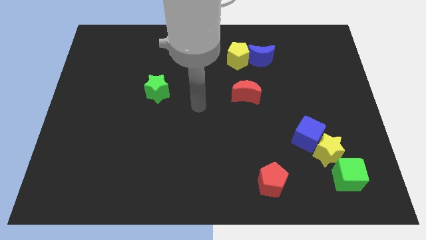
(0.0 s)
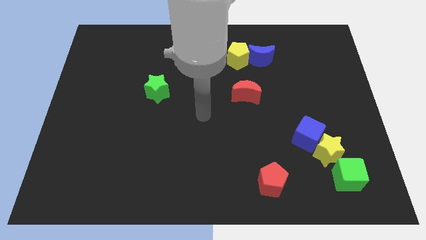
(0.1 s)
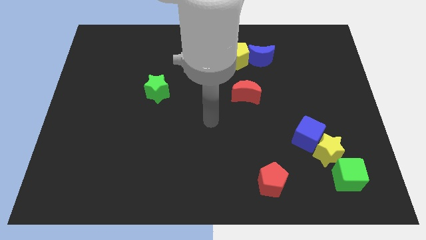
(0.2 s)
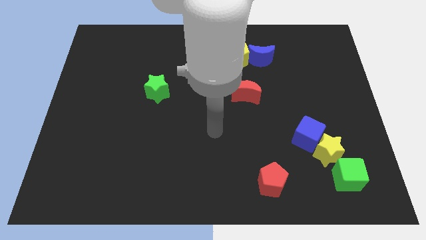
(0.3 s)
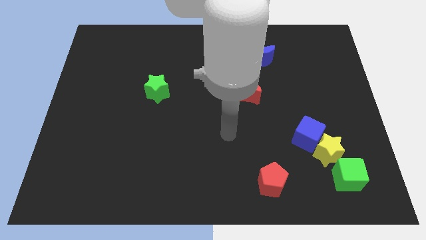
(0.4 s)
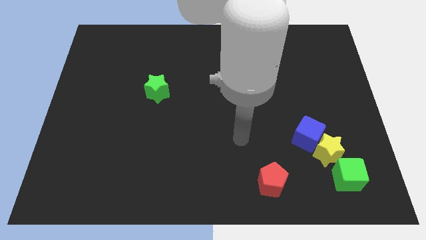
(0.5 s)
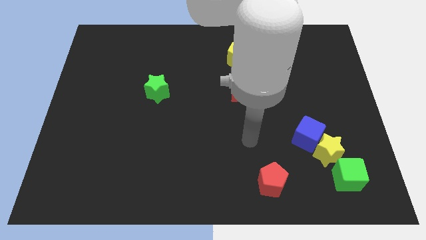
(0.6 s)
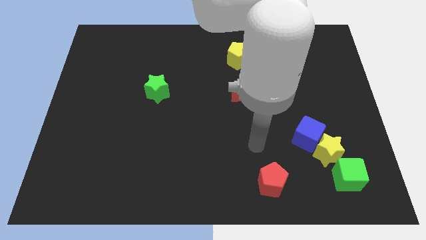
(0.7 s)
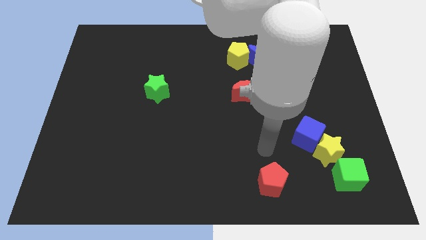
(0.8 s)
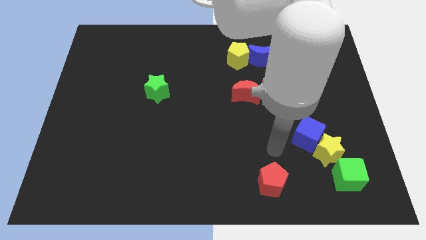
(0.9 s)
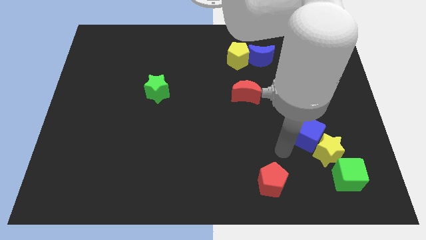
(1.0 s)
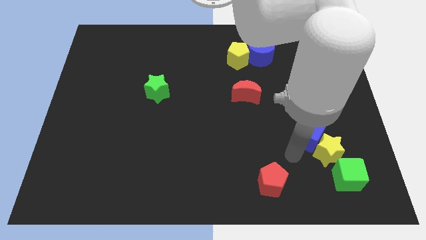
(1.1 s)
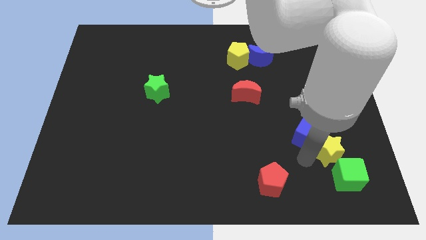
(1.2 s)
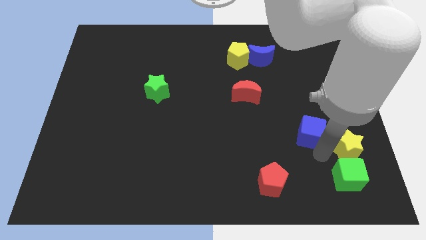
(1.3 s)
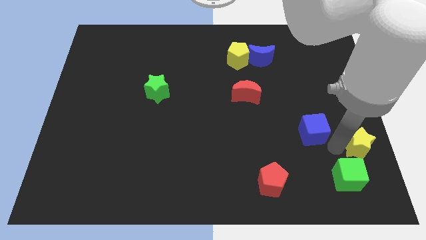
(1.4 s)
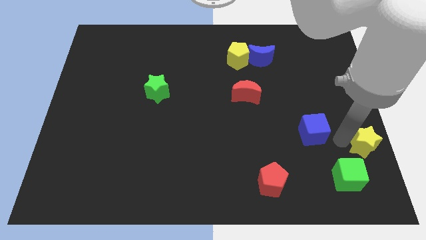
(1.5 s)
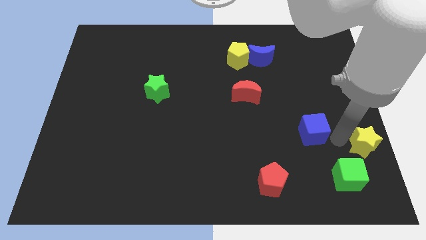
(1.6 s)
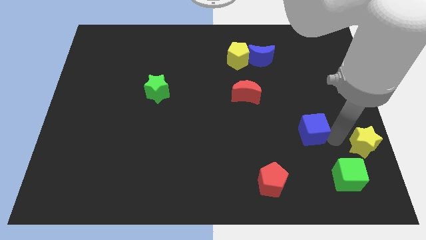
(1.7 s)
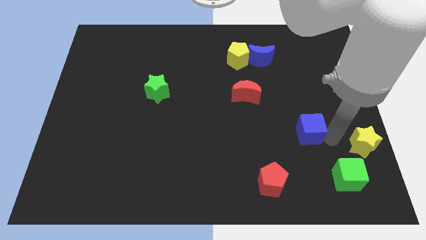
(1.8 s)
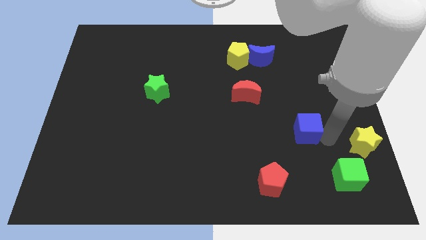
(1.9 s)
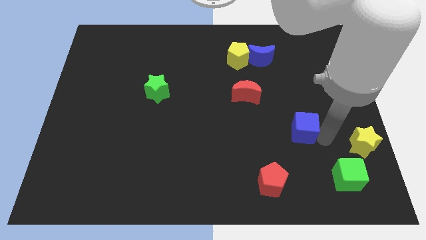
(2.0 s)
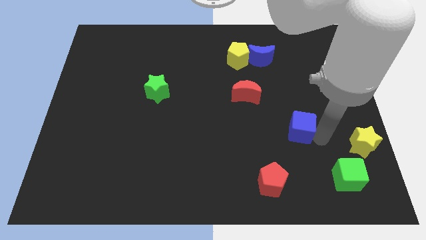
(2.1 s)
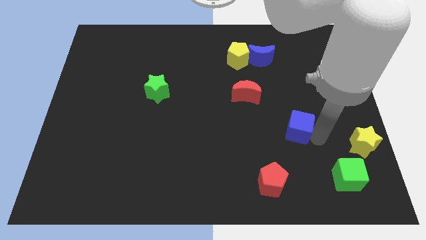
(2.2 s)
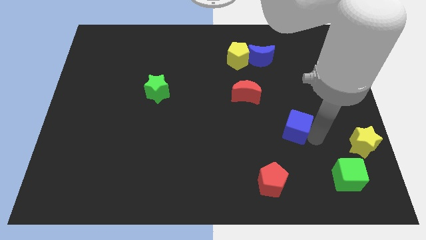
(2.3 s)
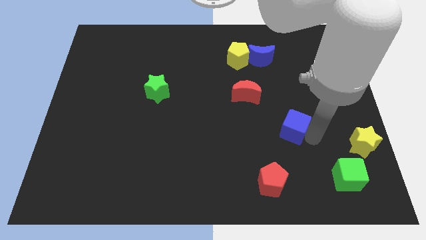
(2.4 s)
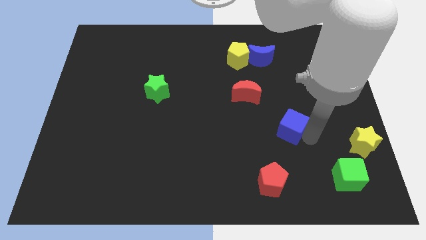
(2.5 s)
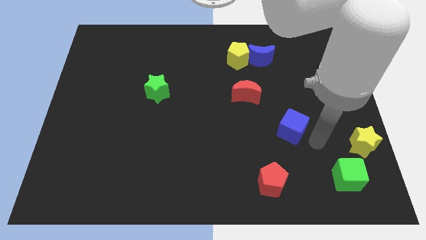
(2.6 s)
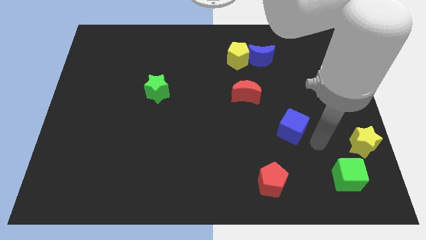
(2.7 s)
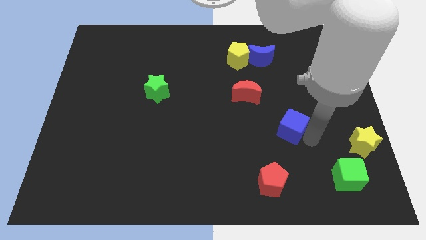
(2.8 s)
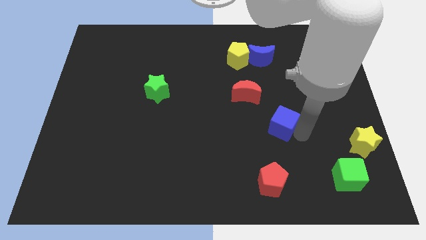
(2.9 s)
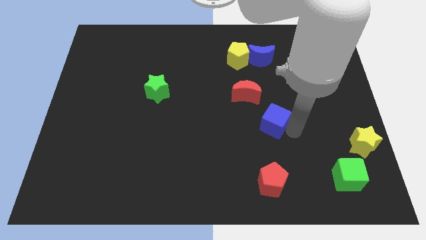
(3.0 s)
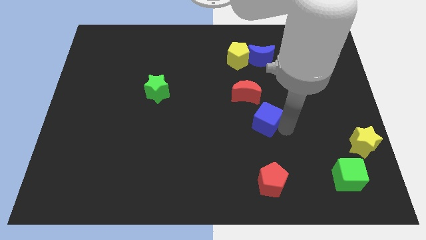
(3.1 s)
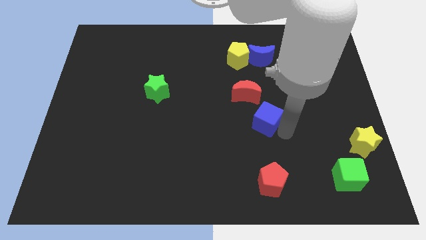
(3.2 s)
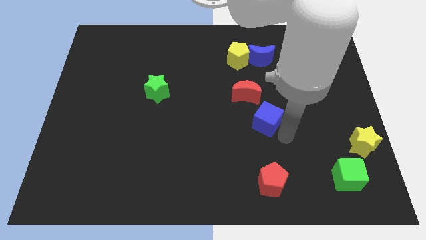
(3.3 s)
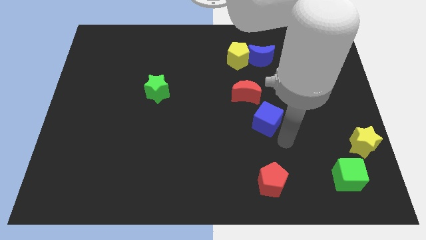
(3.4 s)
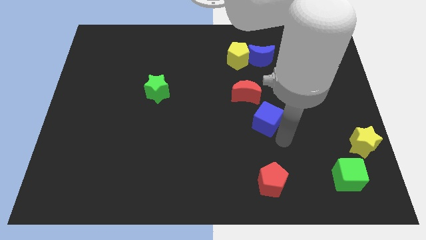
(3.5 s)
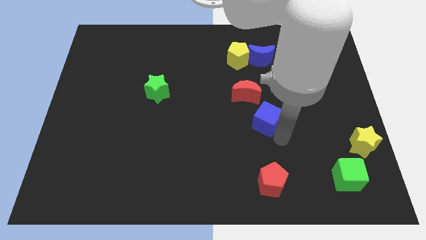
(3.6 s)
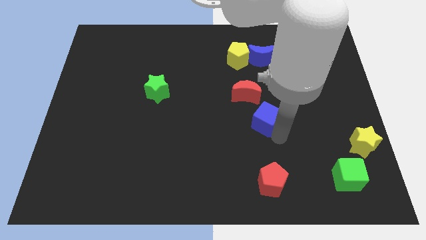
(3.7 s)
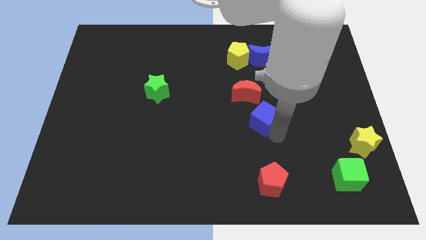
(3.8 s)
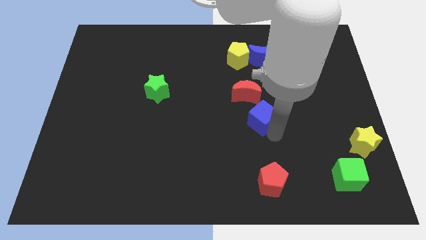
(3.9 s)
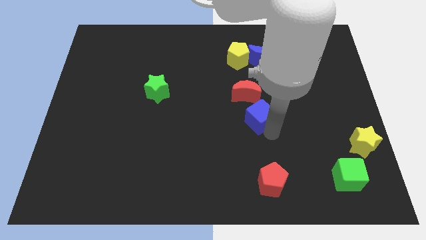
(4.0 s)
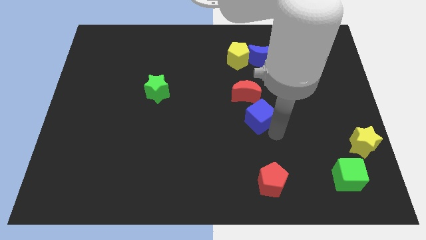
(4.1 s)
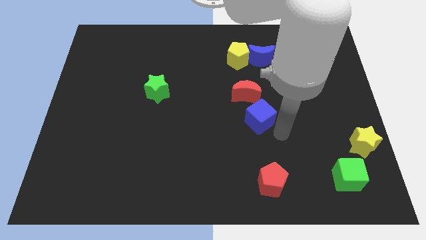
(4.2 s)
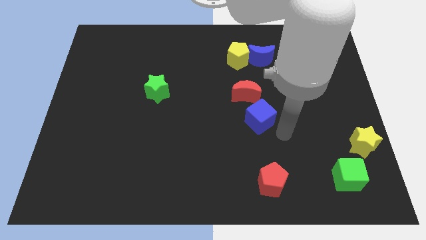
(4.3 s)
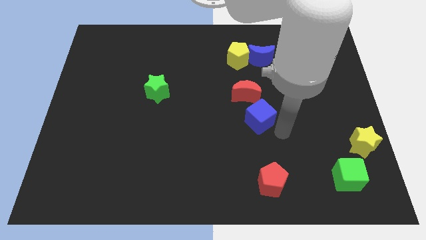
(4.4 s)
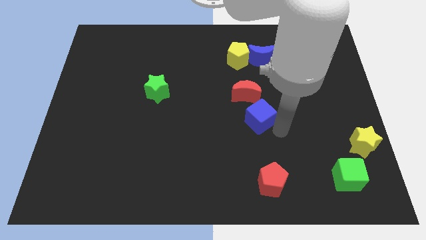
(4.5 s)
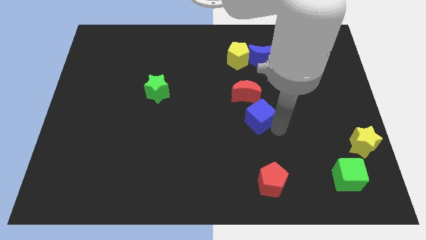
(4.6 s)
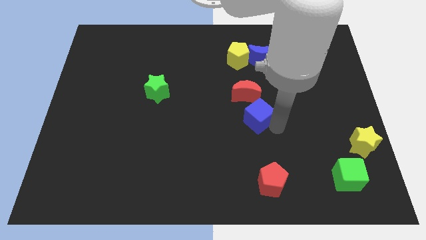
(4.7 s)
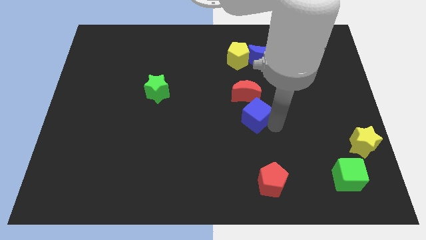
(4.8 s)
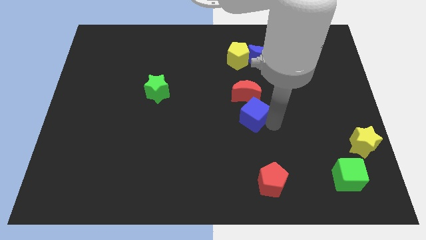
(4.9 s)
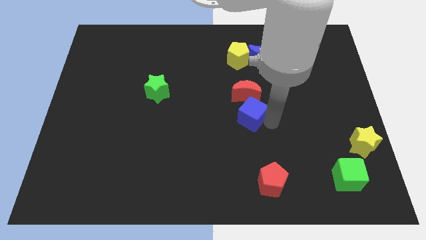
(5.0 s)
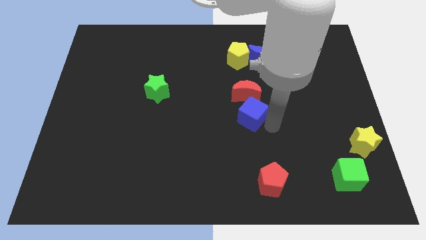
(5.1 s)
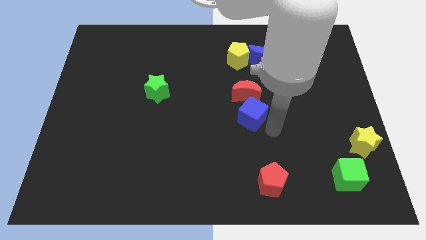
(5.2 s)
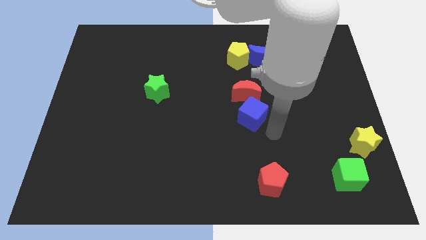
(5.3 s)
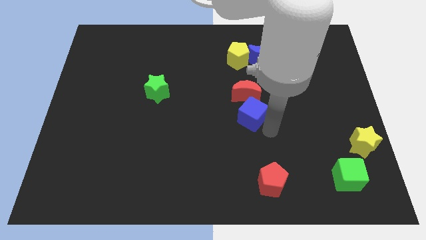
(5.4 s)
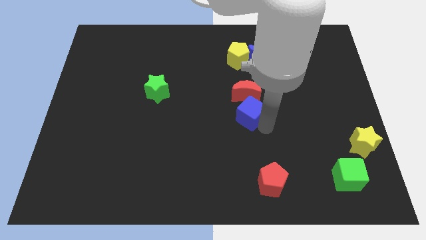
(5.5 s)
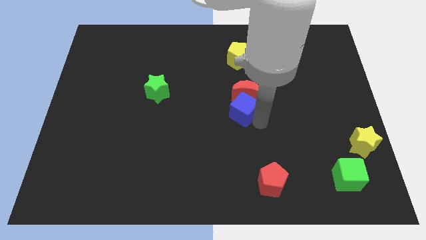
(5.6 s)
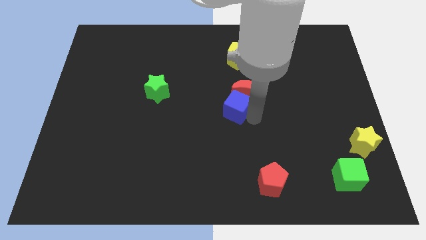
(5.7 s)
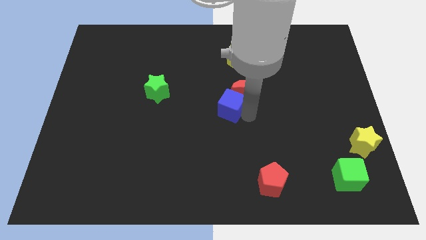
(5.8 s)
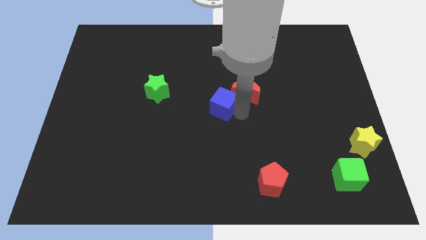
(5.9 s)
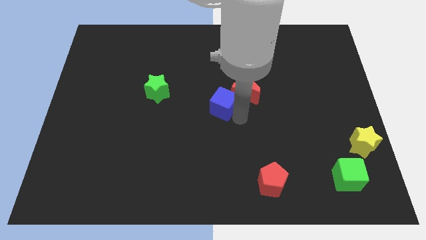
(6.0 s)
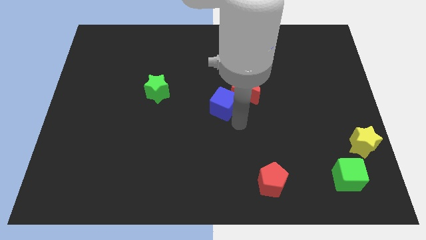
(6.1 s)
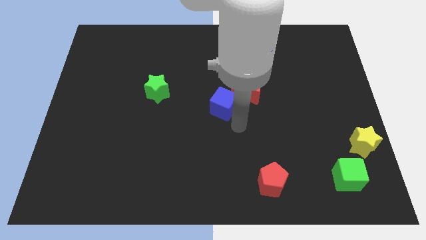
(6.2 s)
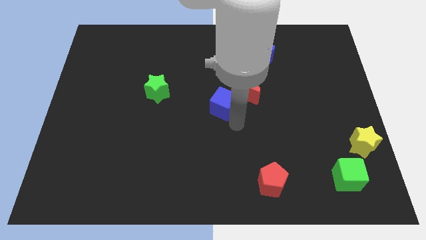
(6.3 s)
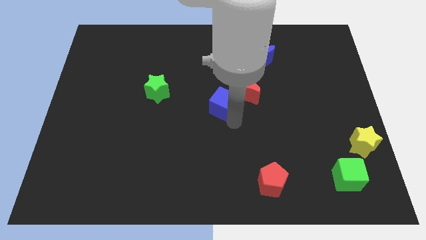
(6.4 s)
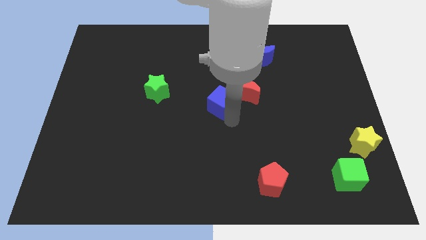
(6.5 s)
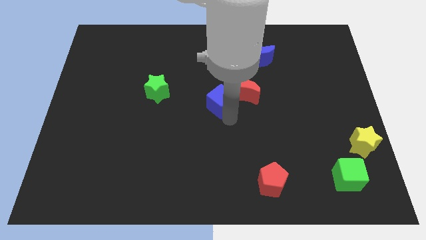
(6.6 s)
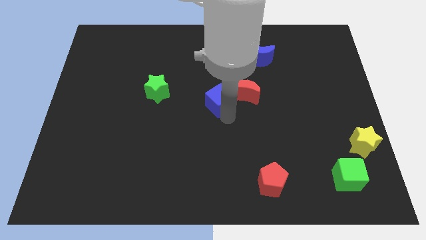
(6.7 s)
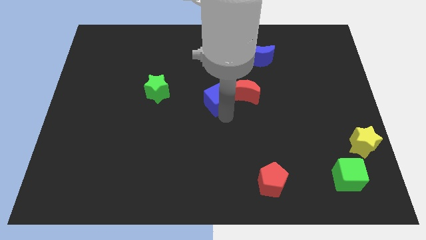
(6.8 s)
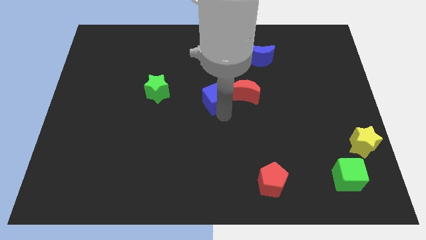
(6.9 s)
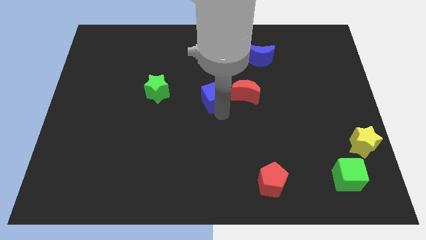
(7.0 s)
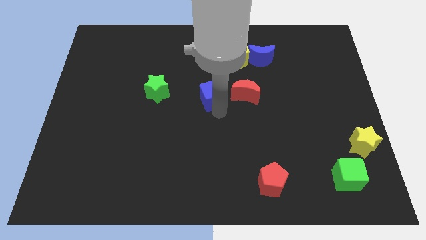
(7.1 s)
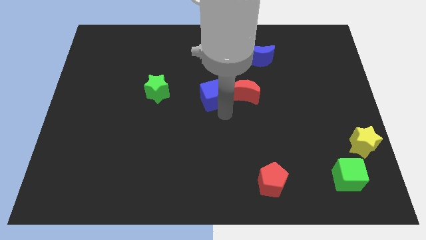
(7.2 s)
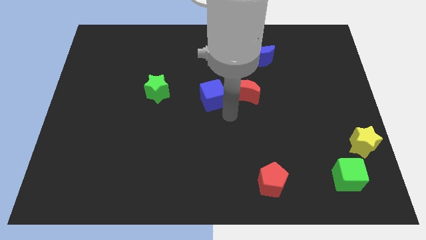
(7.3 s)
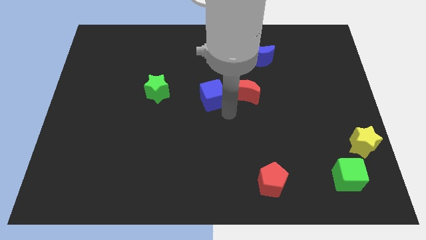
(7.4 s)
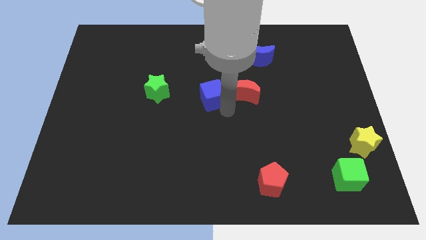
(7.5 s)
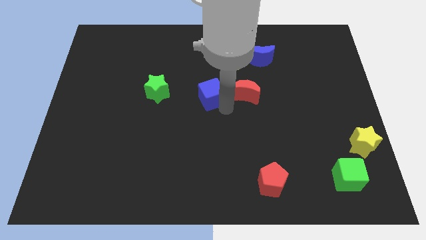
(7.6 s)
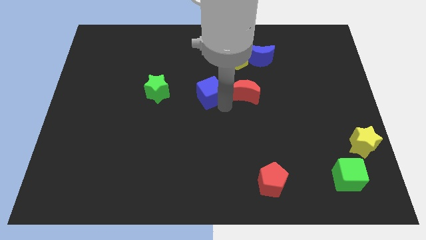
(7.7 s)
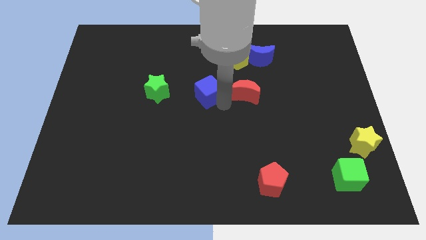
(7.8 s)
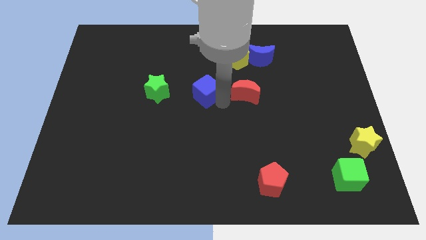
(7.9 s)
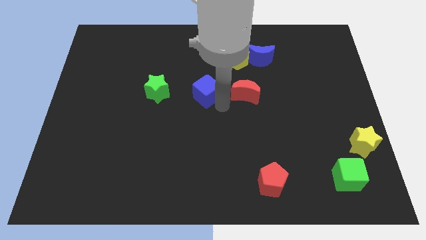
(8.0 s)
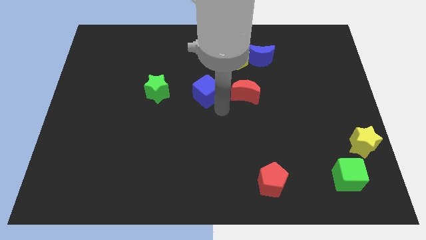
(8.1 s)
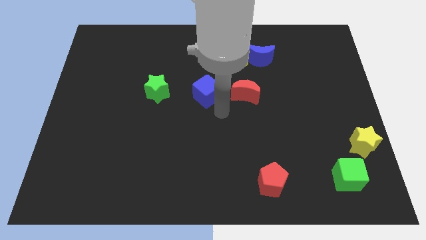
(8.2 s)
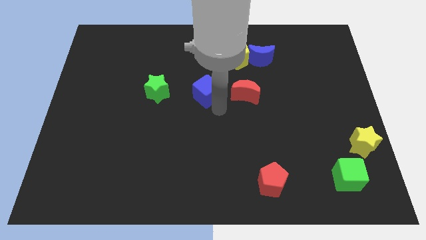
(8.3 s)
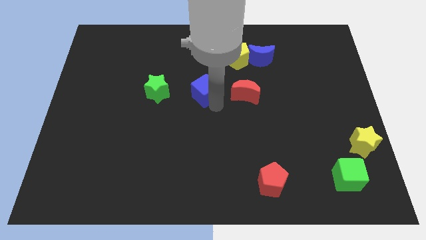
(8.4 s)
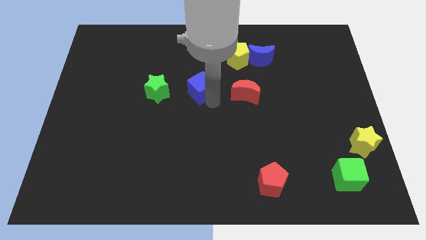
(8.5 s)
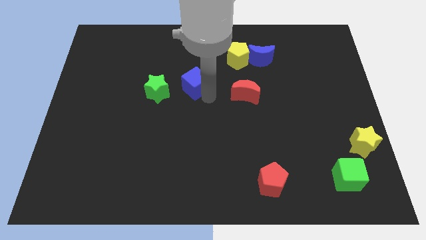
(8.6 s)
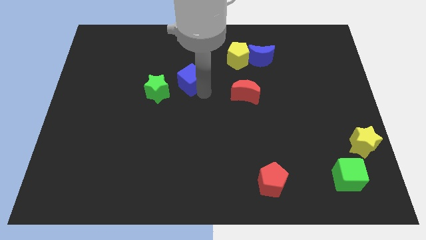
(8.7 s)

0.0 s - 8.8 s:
move the blue cube diagonally up and to the right of the green star
